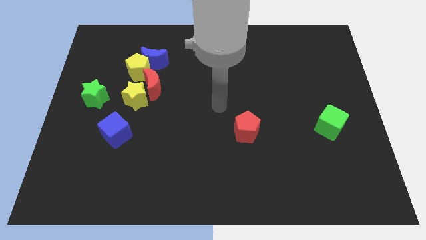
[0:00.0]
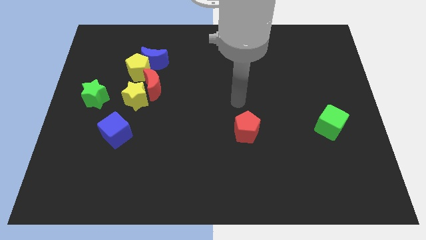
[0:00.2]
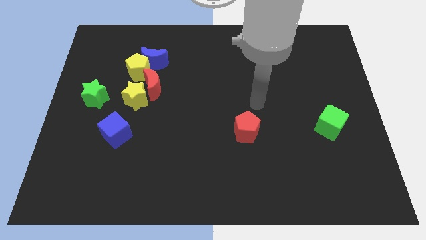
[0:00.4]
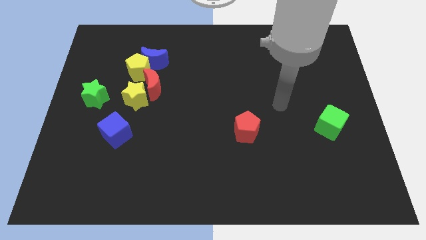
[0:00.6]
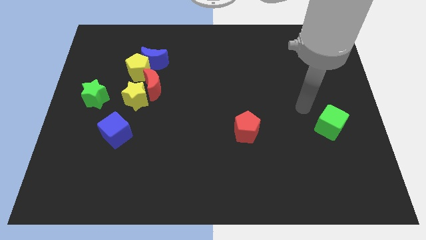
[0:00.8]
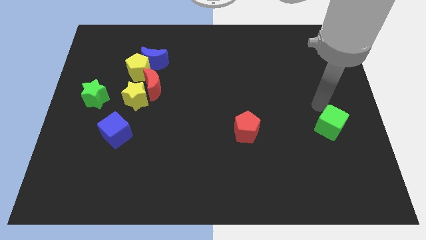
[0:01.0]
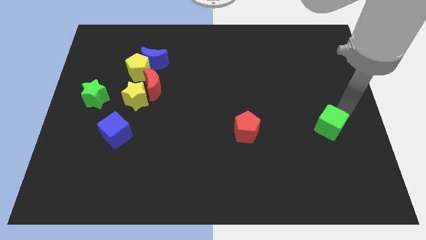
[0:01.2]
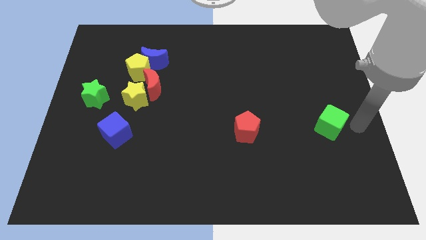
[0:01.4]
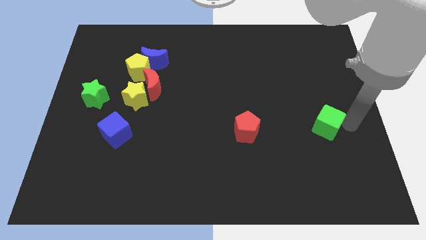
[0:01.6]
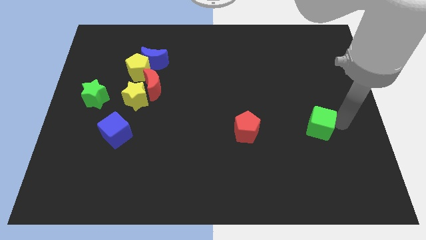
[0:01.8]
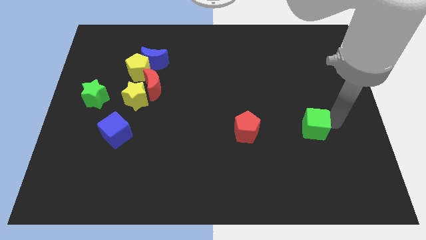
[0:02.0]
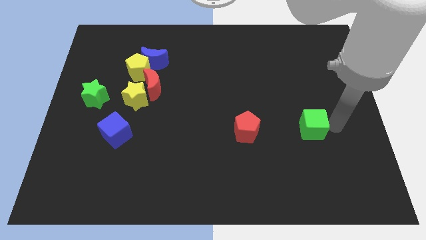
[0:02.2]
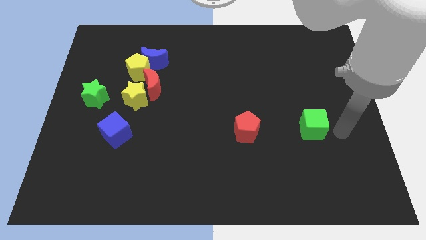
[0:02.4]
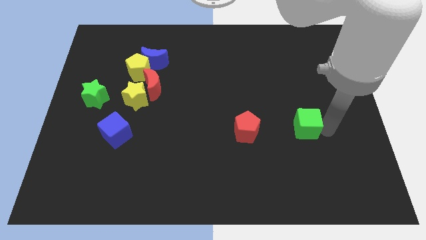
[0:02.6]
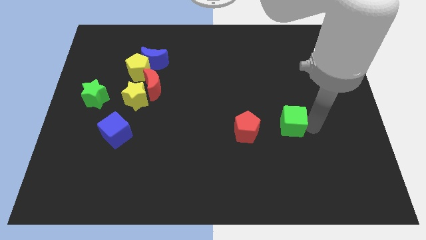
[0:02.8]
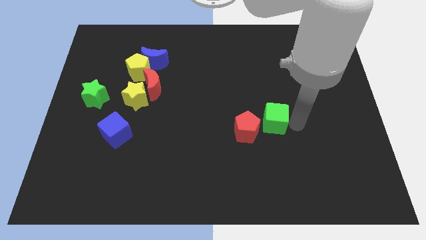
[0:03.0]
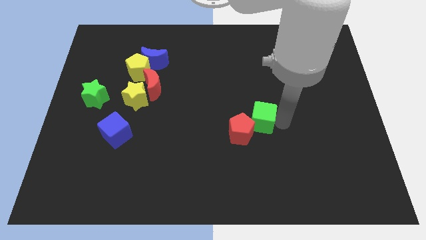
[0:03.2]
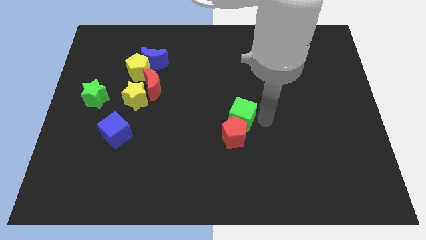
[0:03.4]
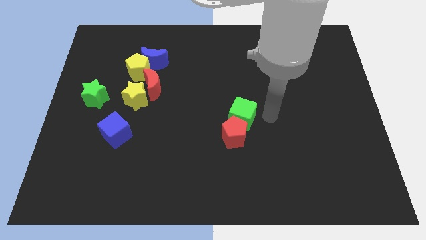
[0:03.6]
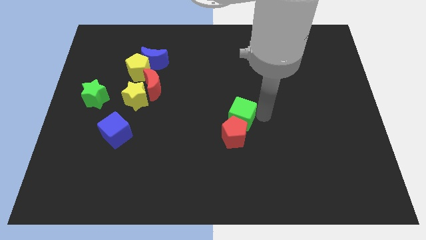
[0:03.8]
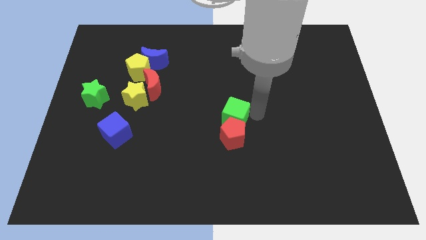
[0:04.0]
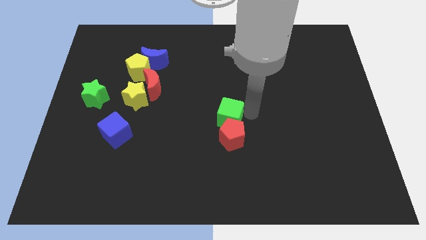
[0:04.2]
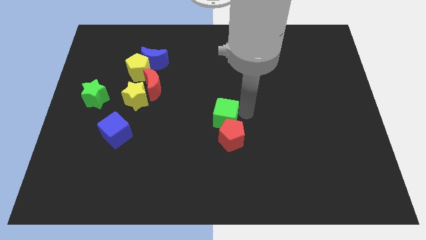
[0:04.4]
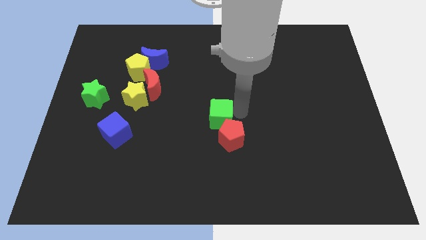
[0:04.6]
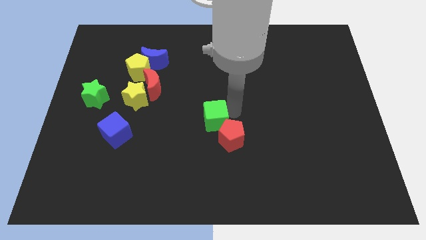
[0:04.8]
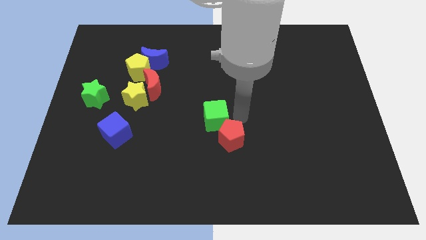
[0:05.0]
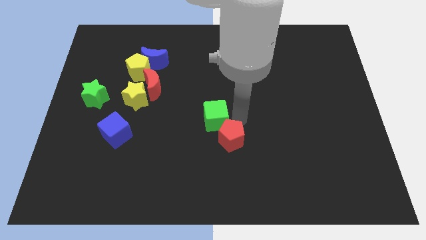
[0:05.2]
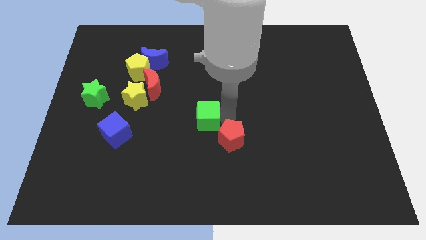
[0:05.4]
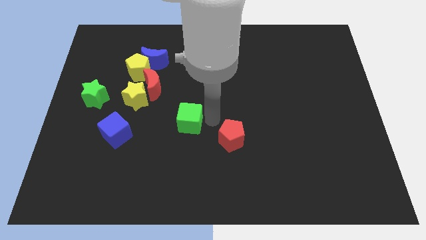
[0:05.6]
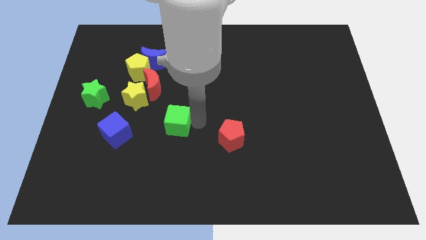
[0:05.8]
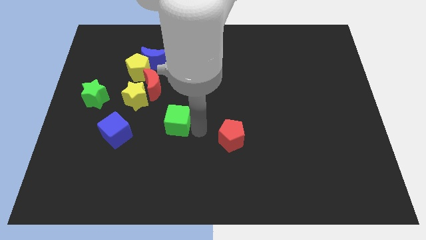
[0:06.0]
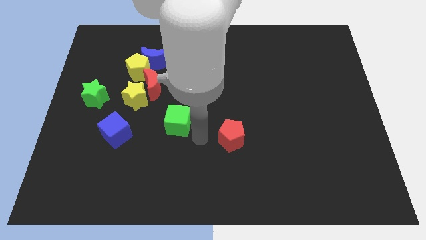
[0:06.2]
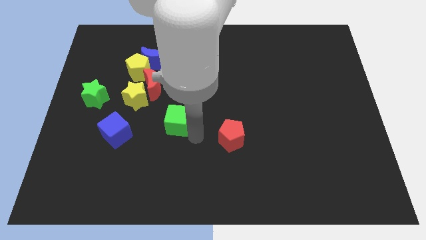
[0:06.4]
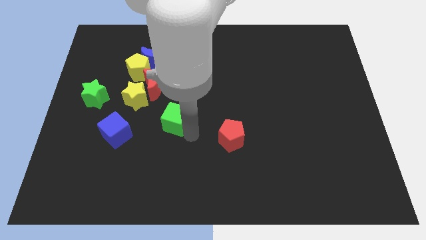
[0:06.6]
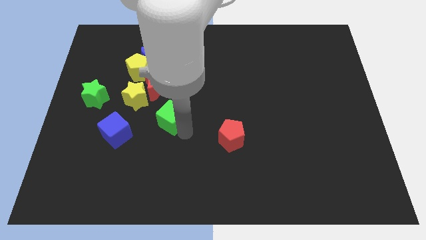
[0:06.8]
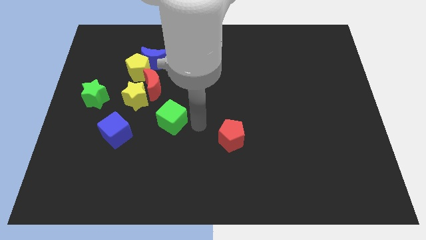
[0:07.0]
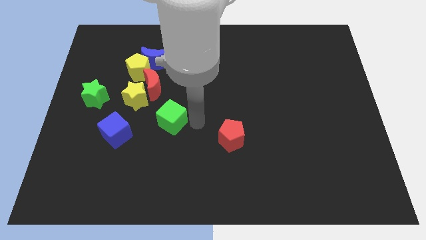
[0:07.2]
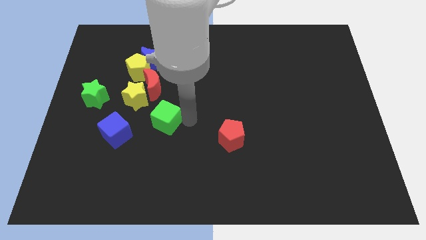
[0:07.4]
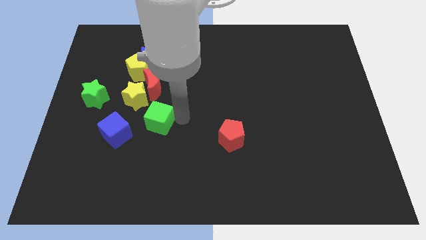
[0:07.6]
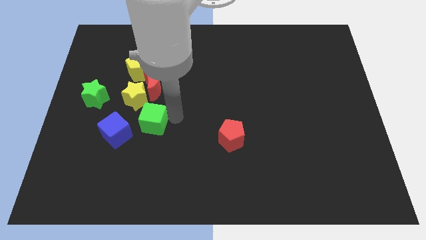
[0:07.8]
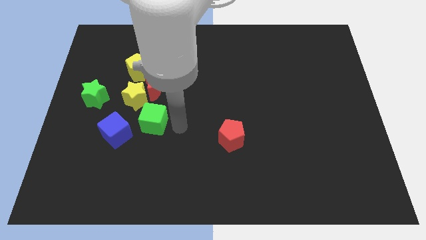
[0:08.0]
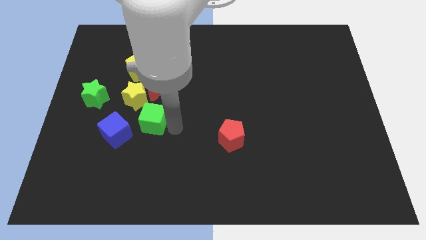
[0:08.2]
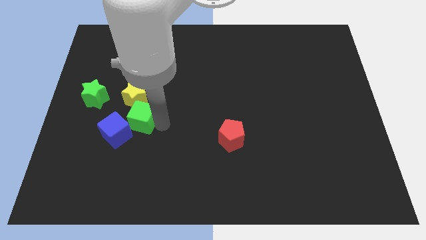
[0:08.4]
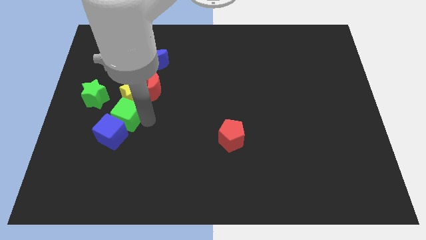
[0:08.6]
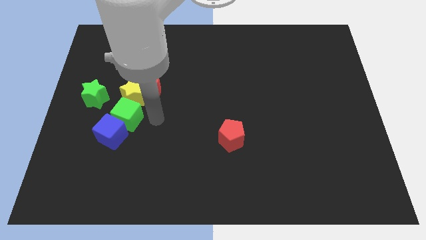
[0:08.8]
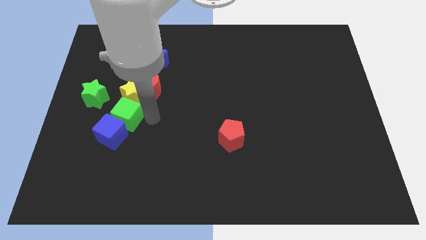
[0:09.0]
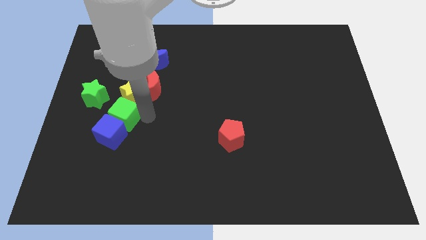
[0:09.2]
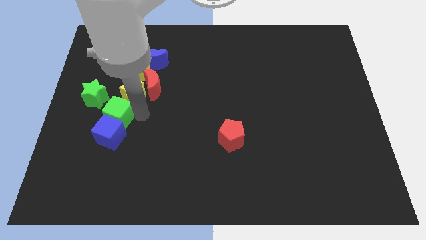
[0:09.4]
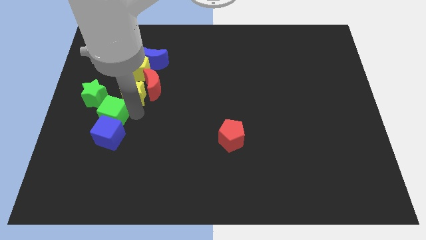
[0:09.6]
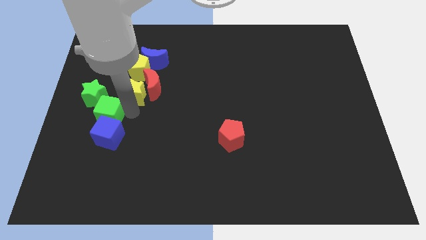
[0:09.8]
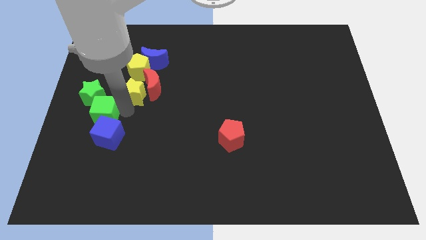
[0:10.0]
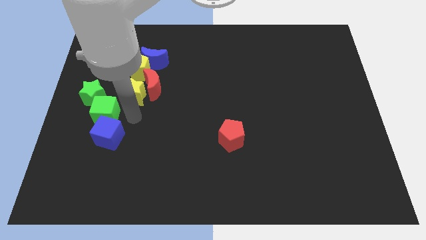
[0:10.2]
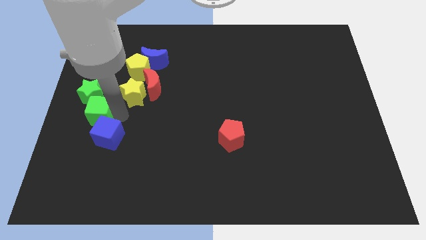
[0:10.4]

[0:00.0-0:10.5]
push the green cube to the center left

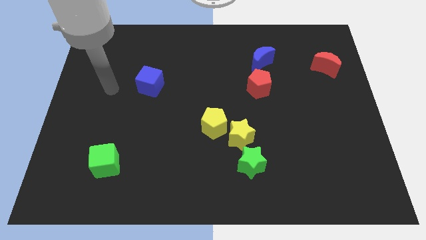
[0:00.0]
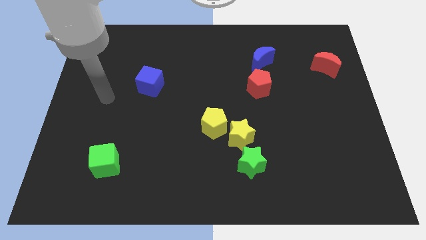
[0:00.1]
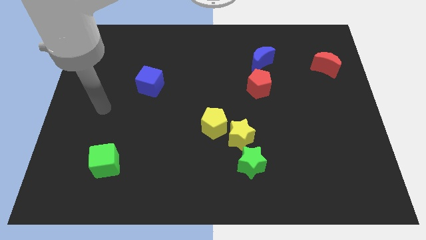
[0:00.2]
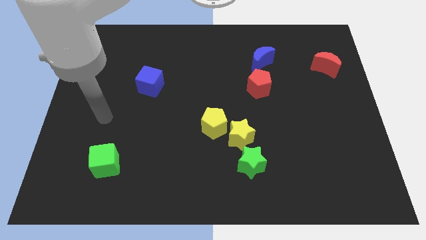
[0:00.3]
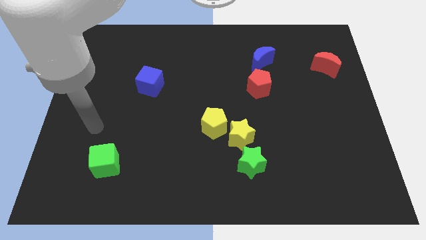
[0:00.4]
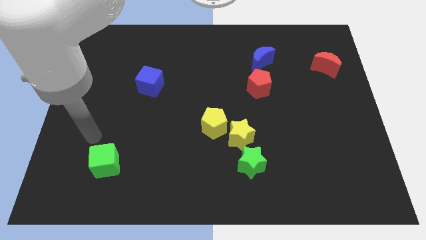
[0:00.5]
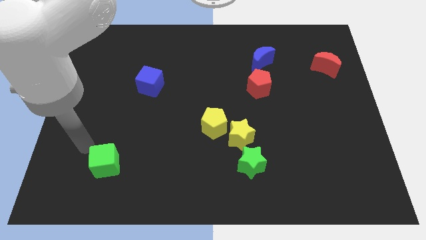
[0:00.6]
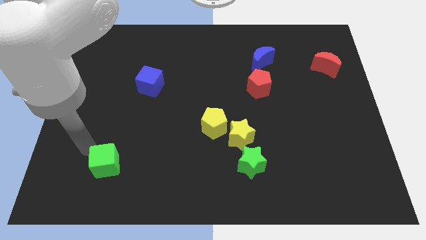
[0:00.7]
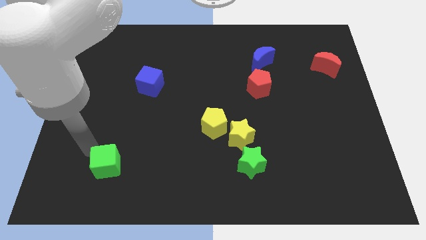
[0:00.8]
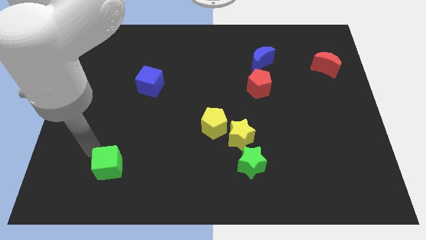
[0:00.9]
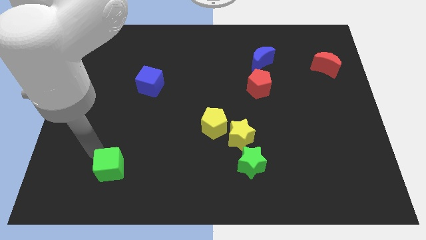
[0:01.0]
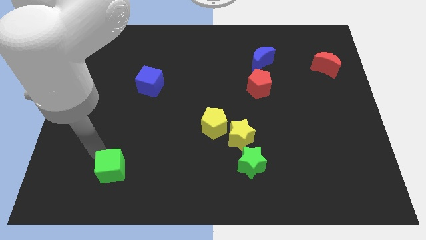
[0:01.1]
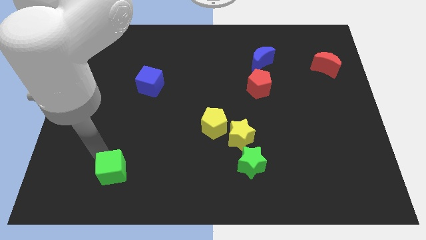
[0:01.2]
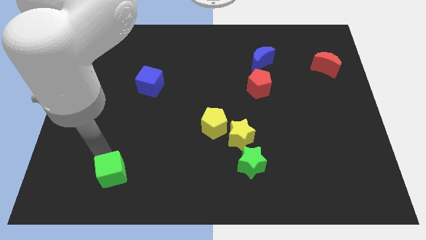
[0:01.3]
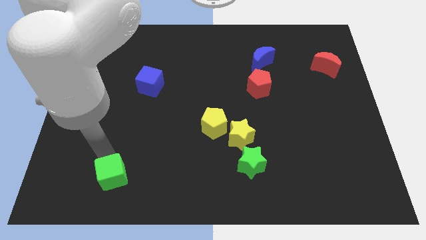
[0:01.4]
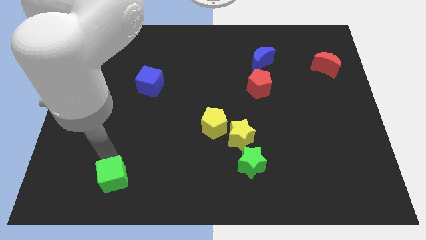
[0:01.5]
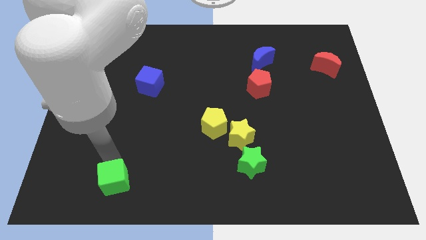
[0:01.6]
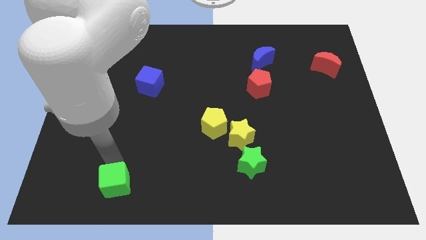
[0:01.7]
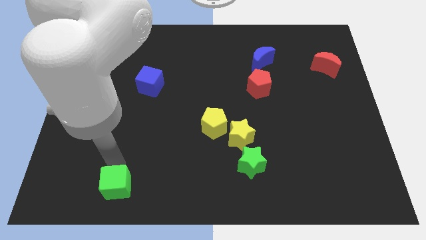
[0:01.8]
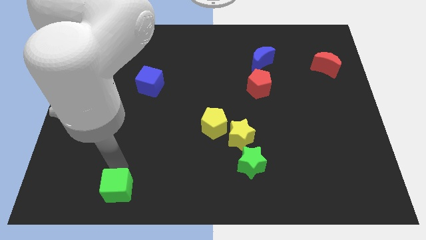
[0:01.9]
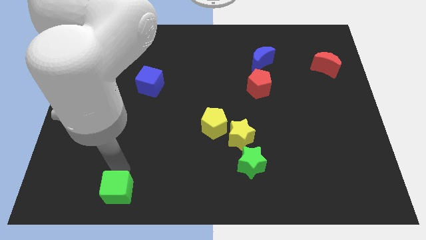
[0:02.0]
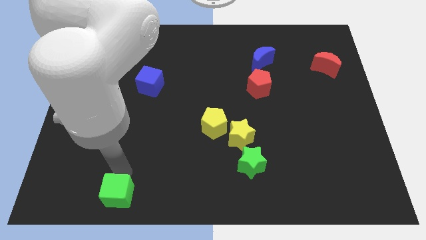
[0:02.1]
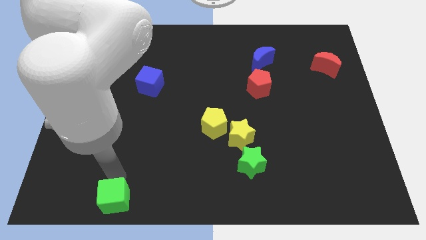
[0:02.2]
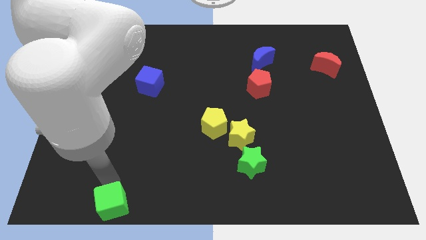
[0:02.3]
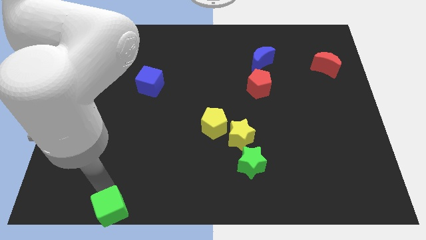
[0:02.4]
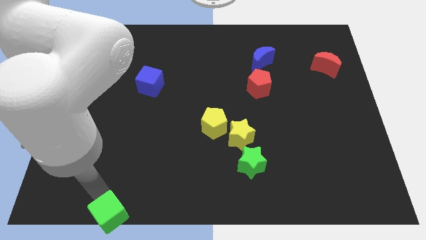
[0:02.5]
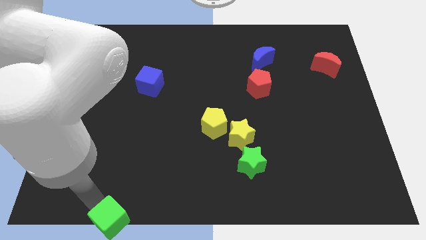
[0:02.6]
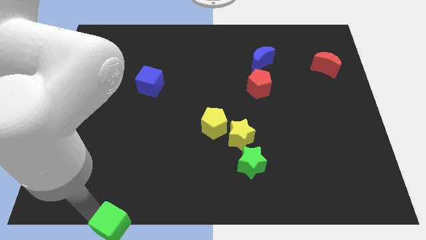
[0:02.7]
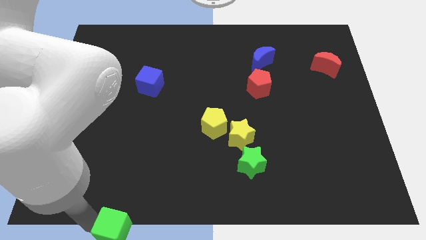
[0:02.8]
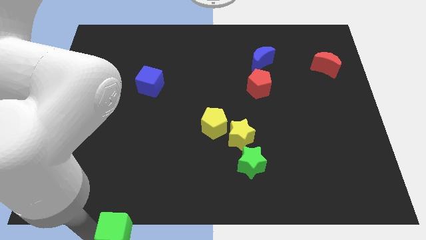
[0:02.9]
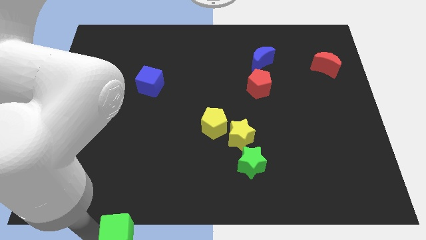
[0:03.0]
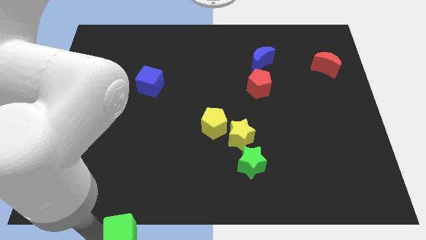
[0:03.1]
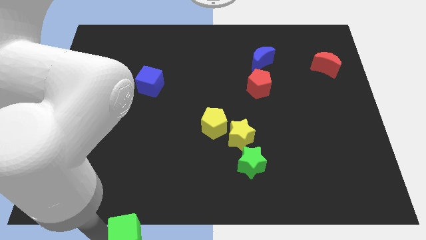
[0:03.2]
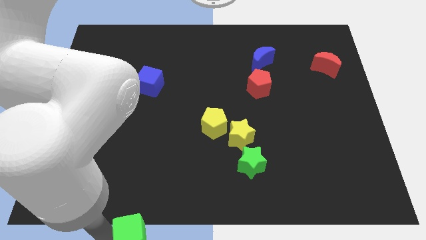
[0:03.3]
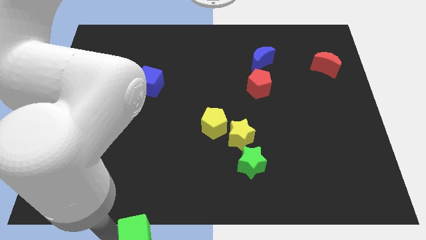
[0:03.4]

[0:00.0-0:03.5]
put the green cube to the bottom
